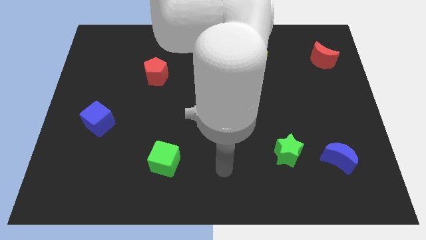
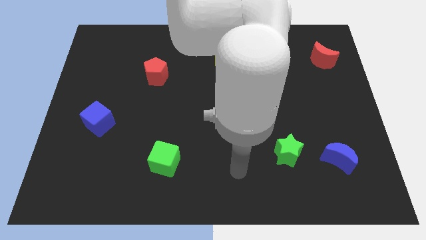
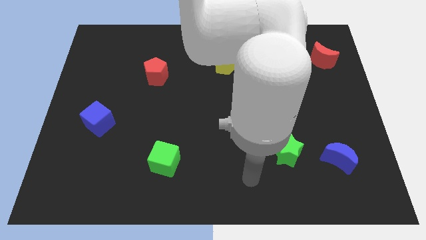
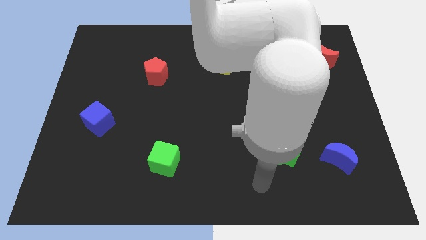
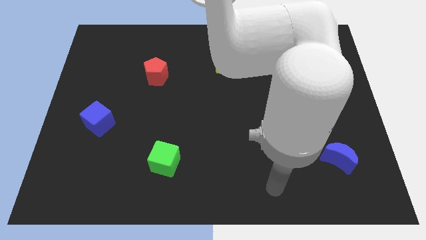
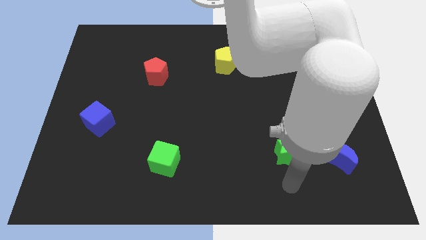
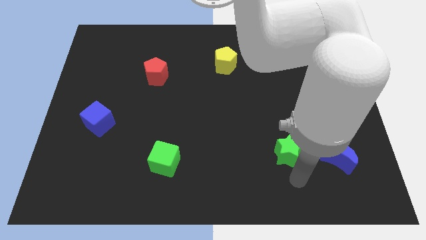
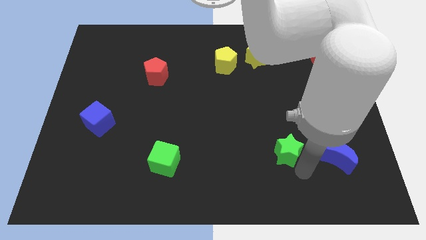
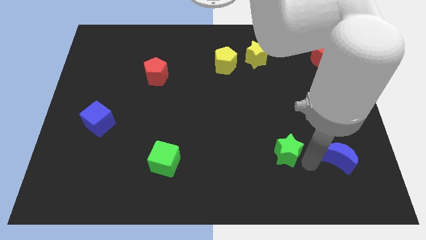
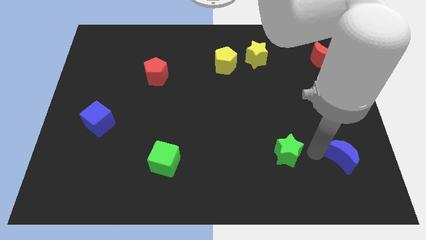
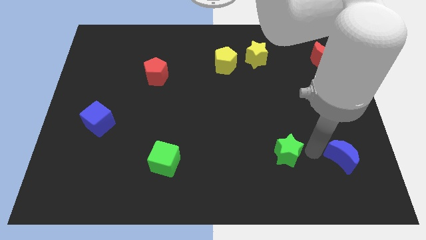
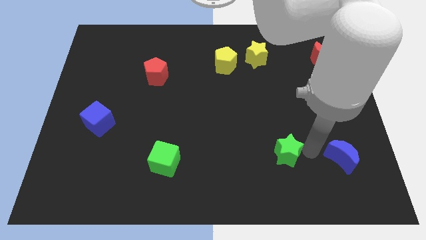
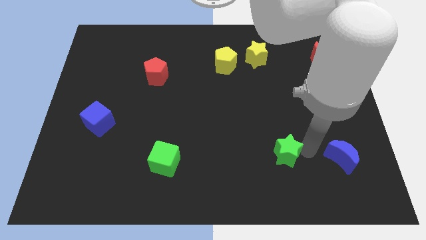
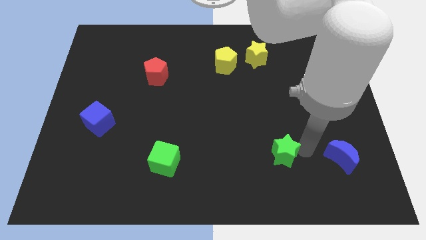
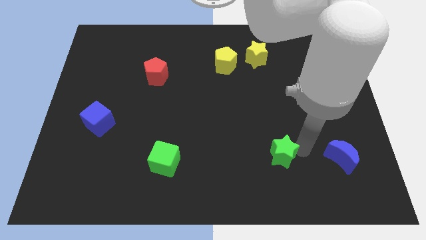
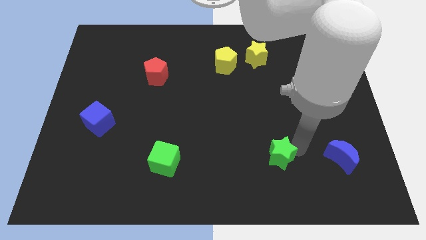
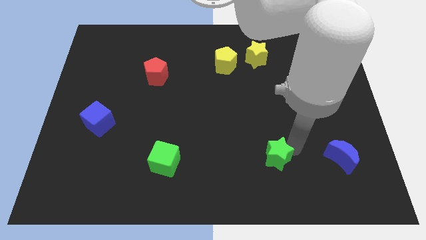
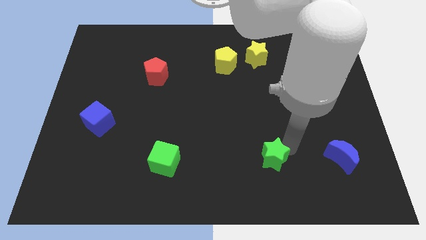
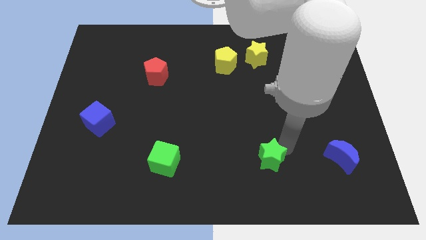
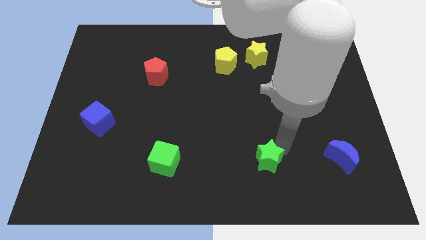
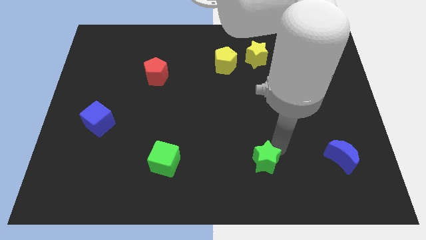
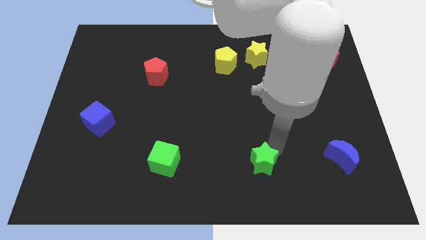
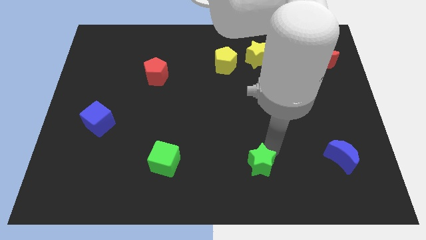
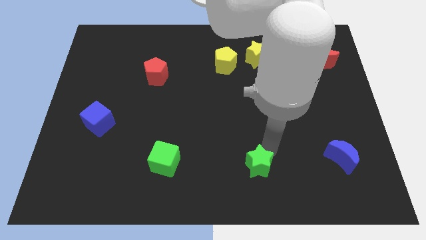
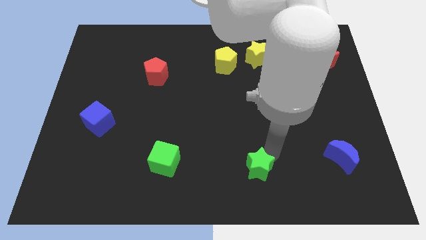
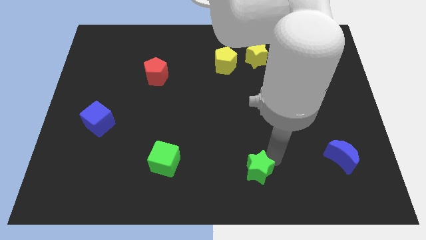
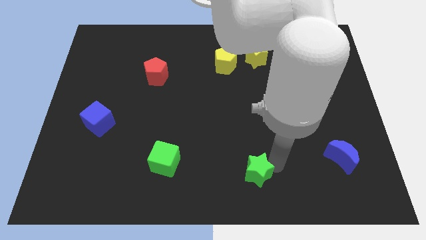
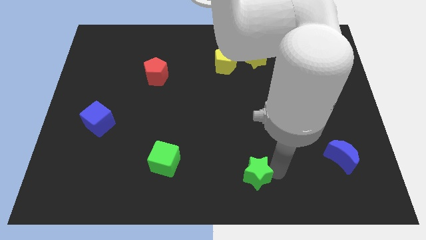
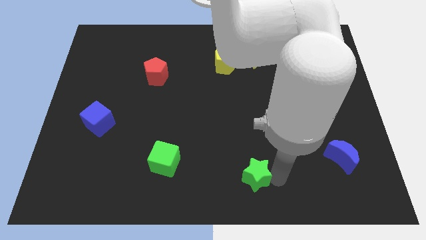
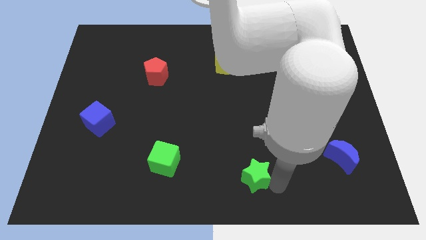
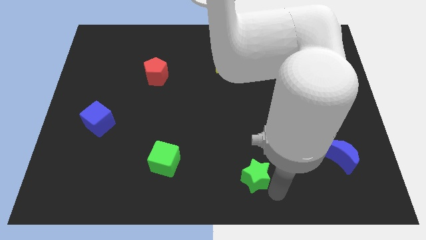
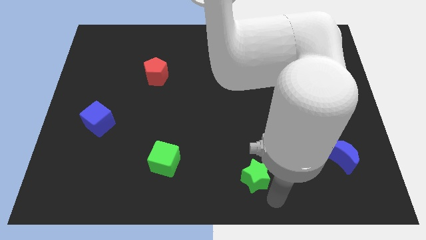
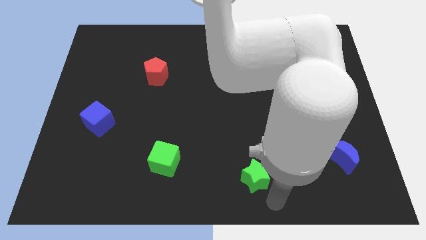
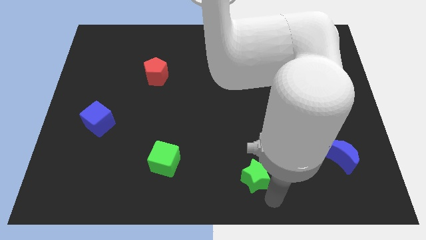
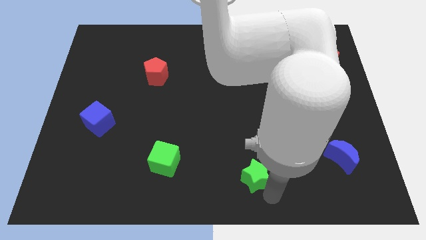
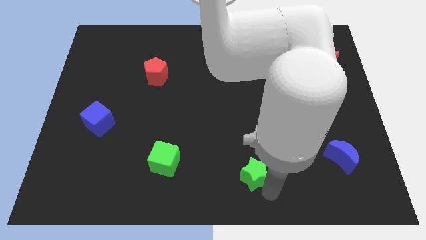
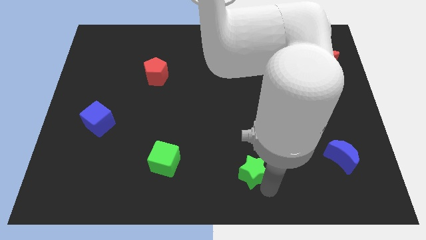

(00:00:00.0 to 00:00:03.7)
slightly slide the green star left

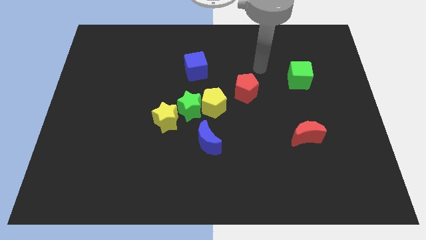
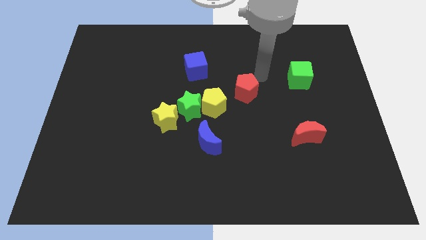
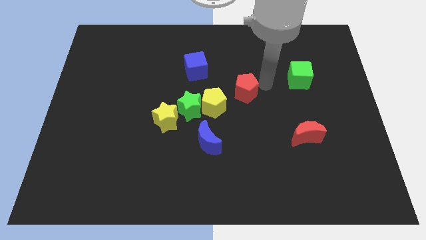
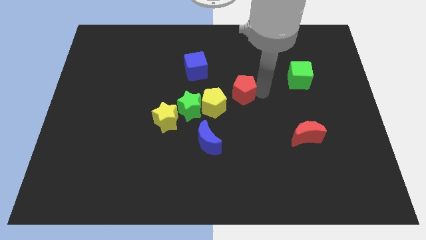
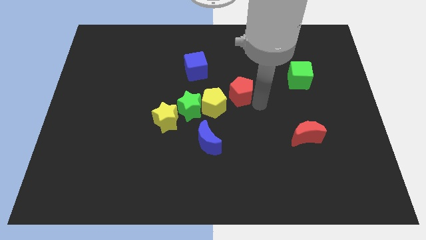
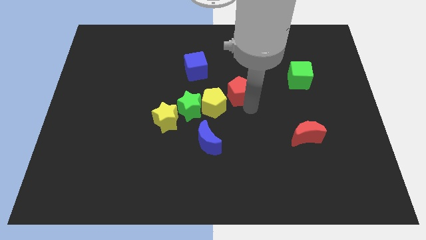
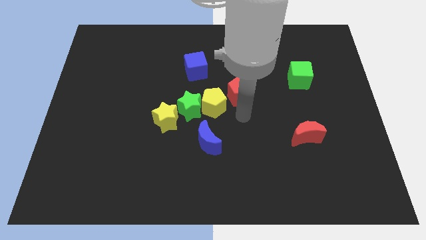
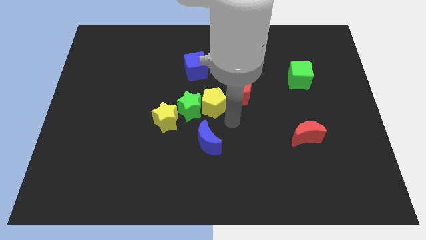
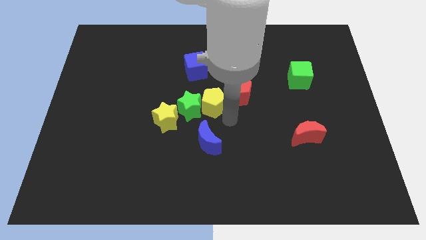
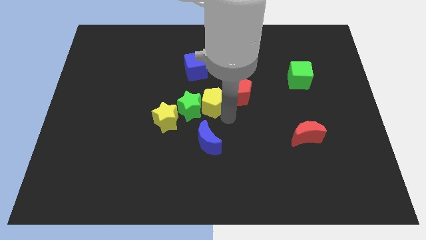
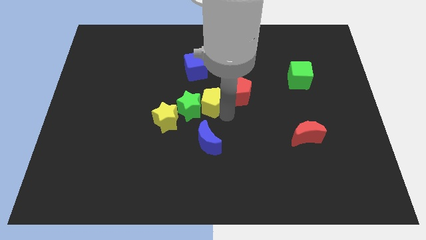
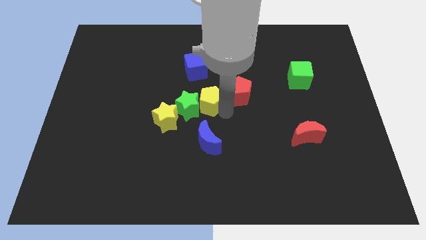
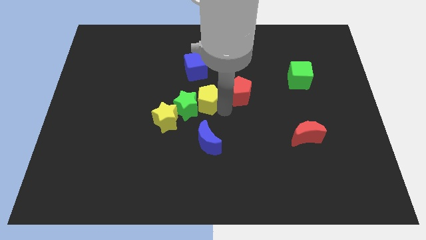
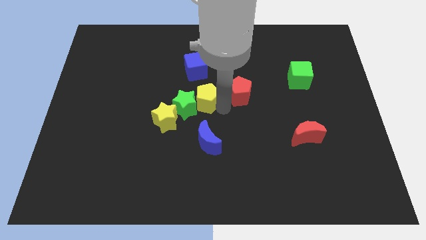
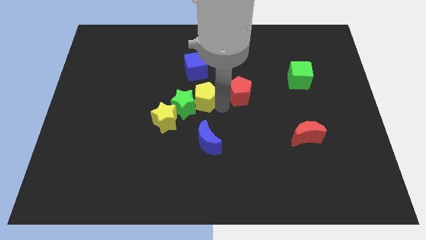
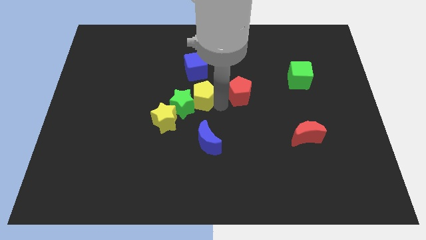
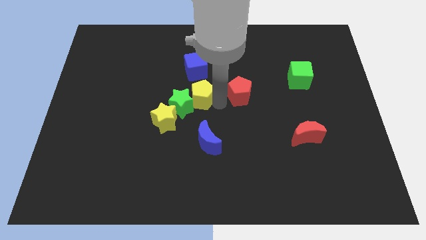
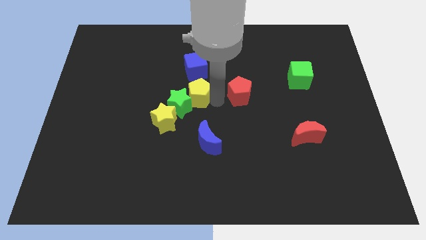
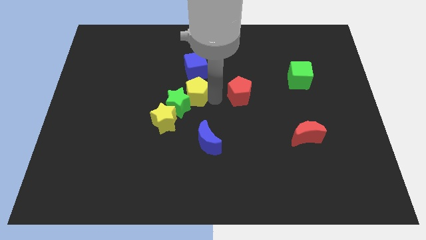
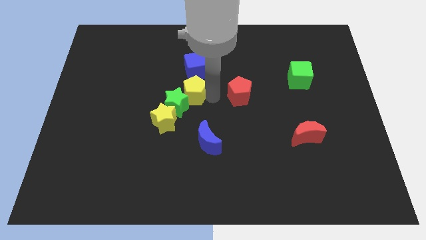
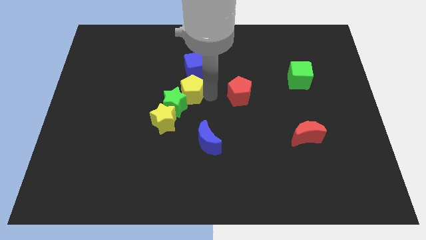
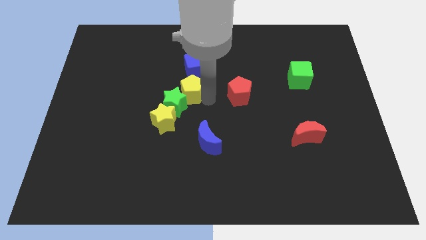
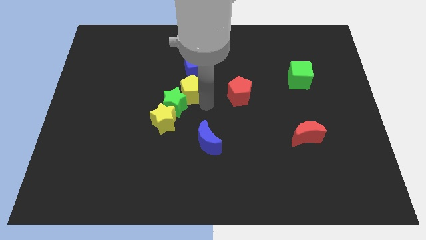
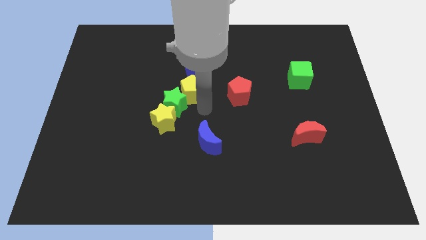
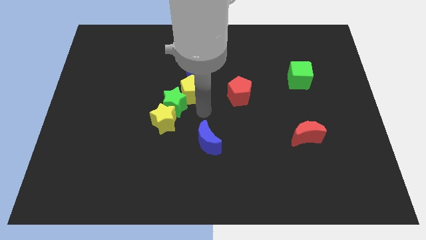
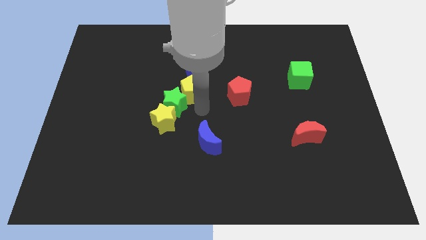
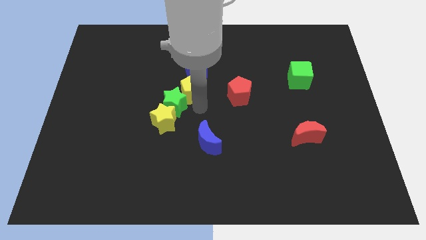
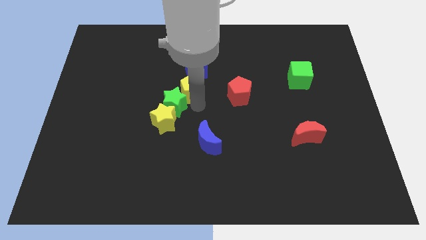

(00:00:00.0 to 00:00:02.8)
push the yellow pentagon diagonally upwards and left a little

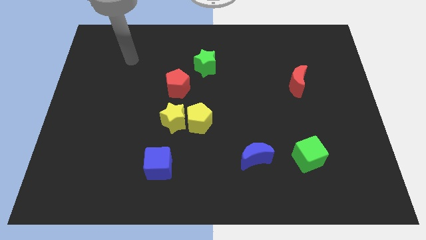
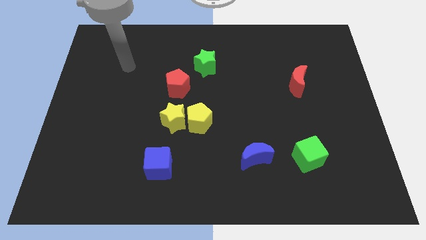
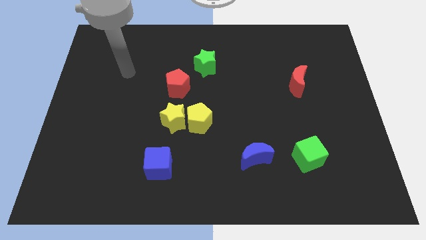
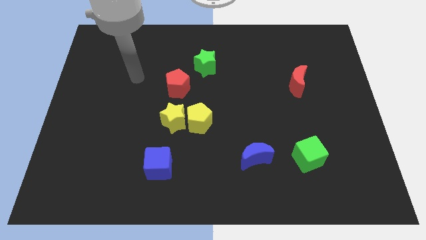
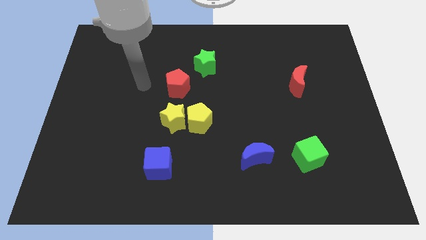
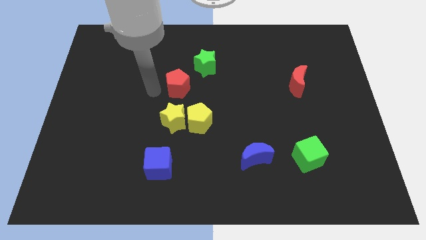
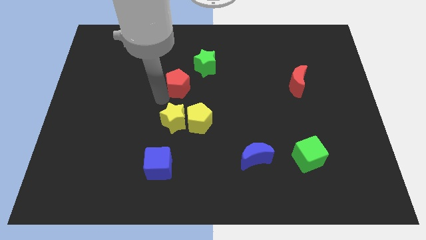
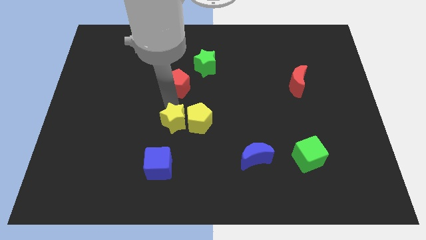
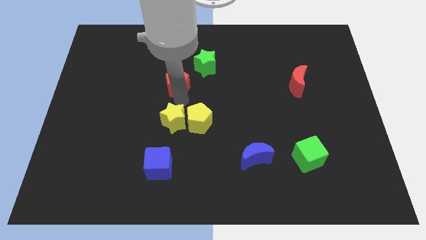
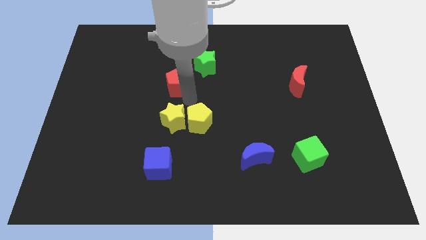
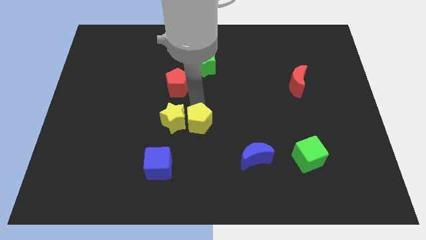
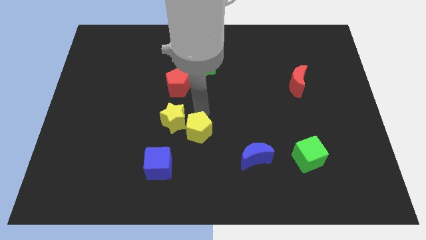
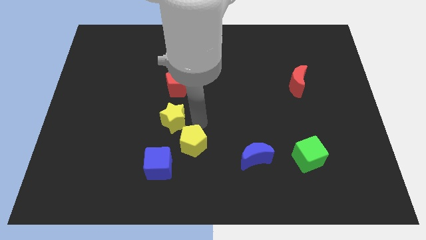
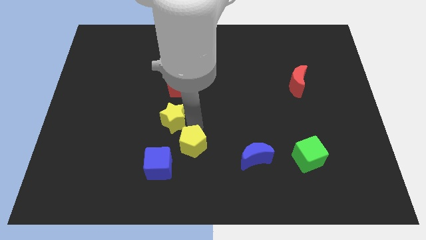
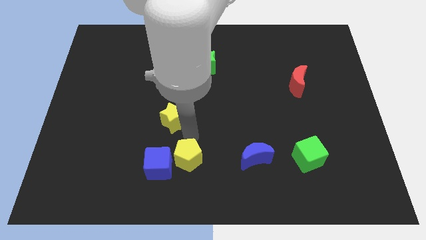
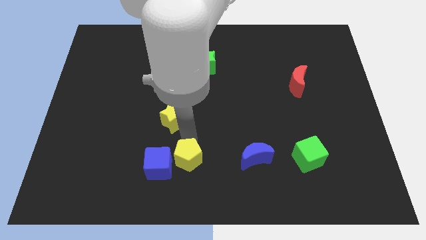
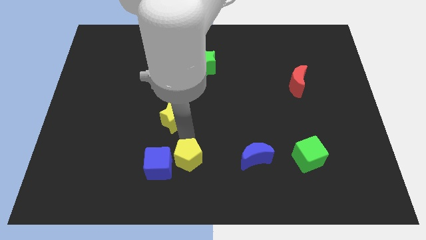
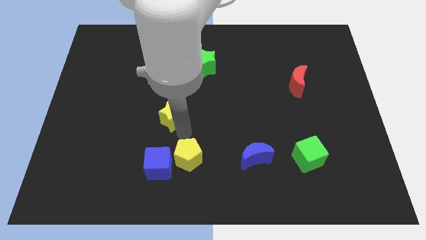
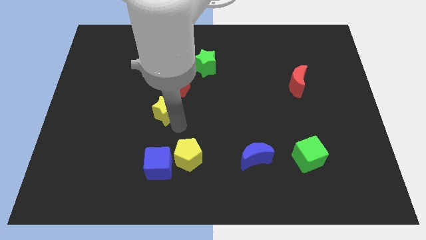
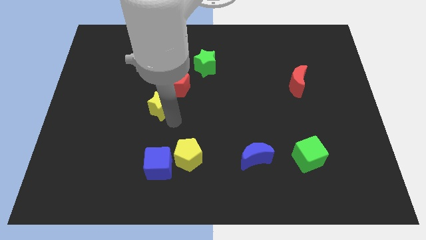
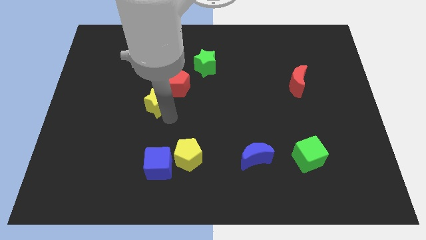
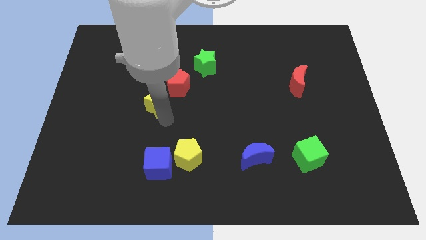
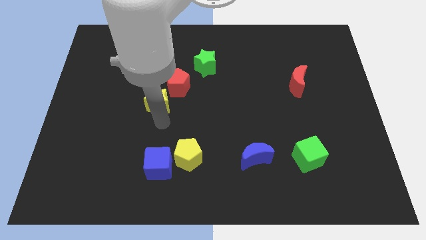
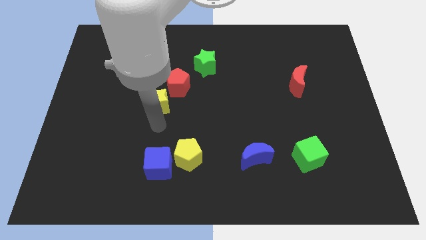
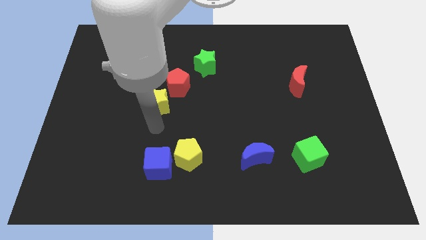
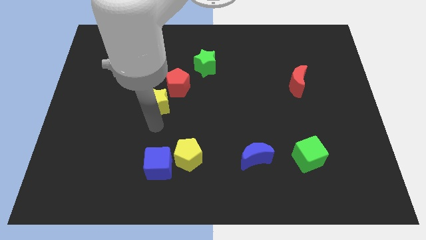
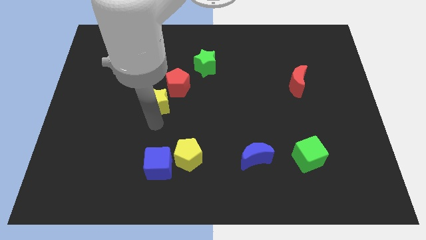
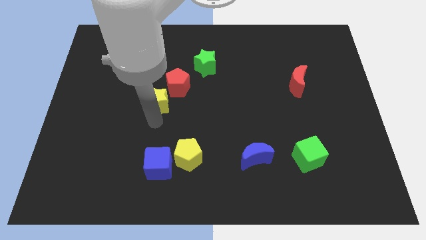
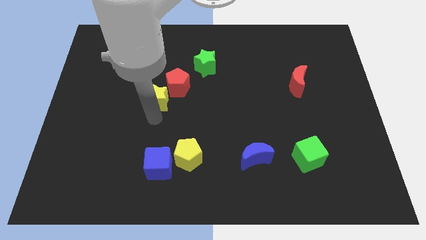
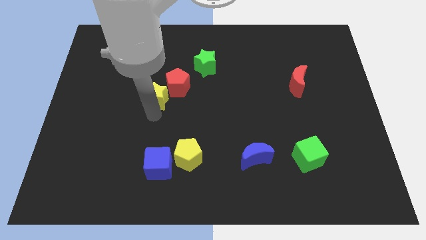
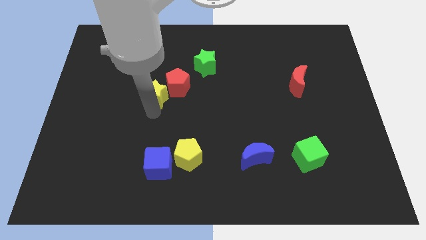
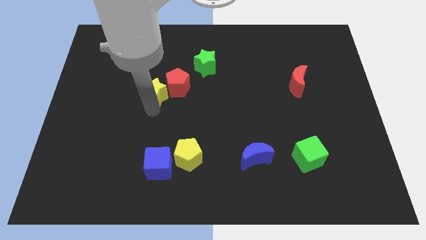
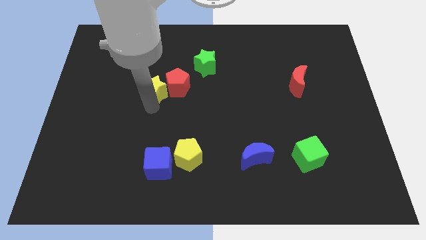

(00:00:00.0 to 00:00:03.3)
slightly push the yellow star upwards
